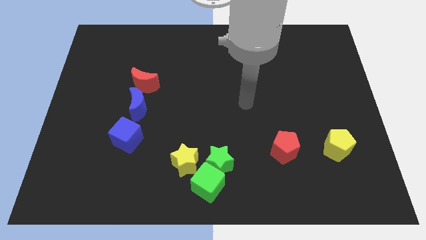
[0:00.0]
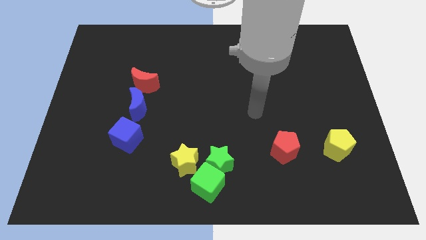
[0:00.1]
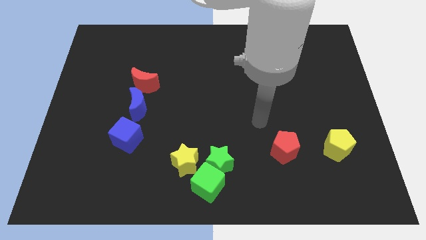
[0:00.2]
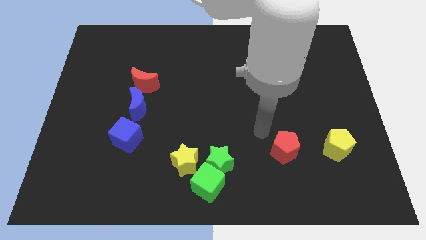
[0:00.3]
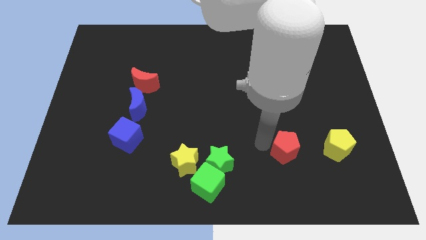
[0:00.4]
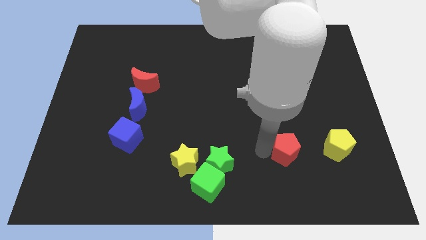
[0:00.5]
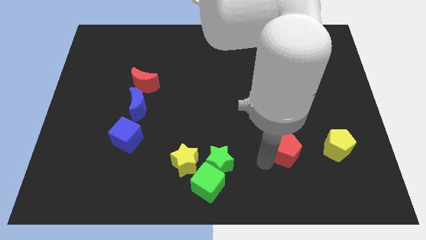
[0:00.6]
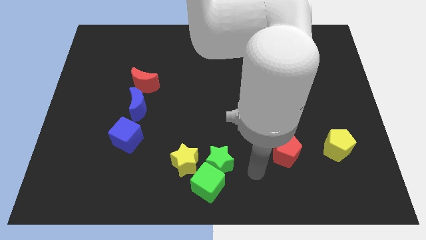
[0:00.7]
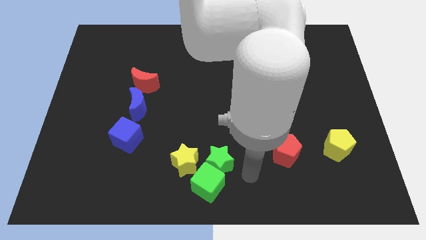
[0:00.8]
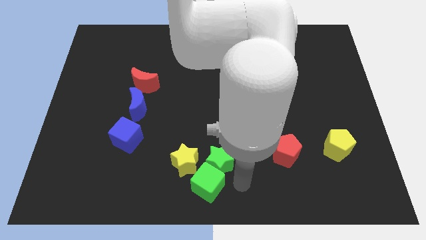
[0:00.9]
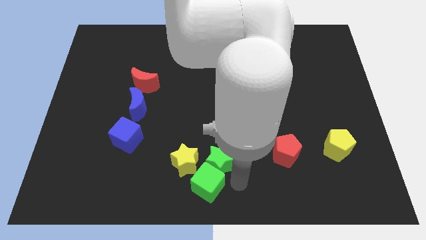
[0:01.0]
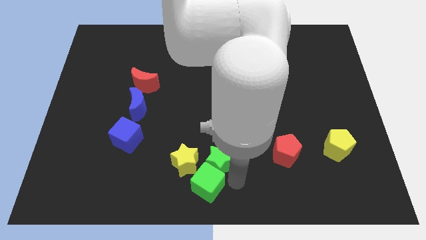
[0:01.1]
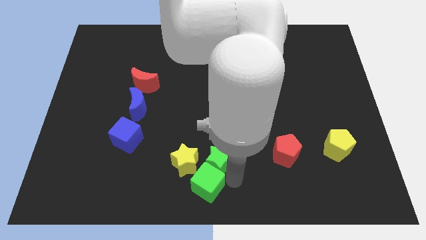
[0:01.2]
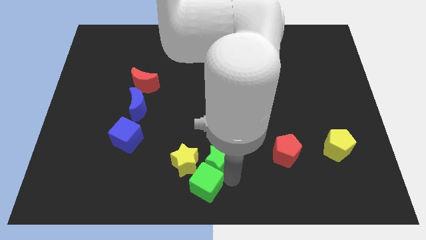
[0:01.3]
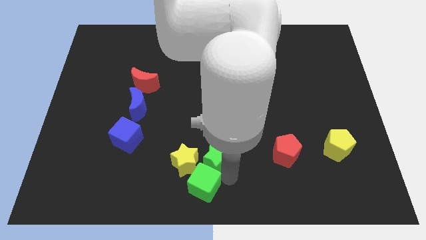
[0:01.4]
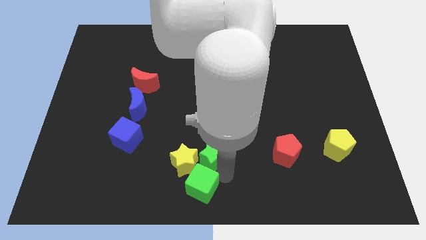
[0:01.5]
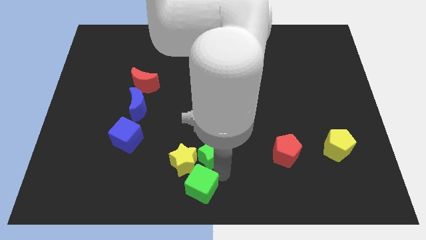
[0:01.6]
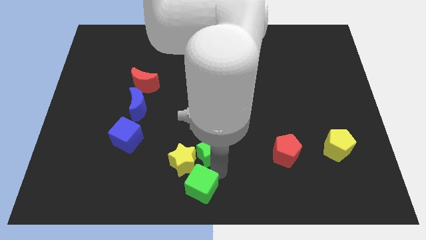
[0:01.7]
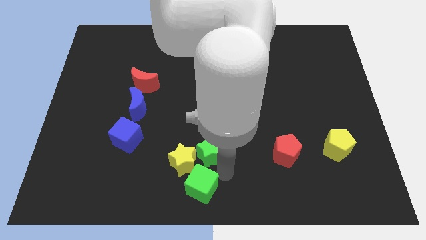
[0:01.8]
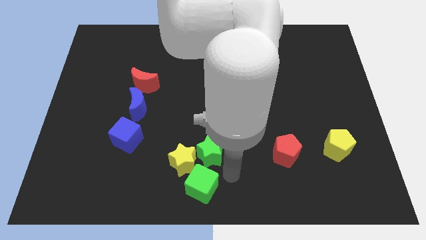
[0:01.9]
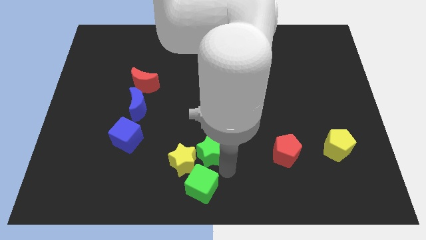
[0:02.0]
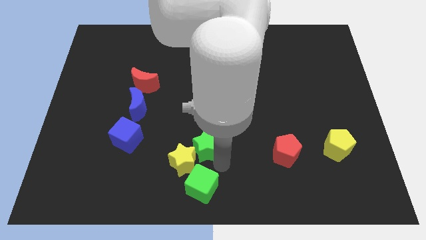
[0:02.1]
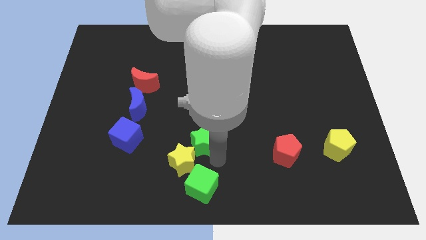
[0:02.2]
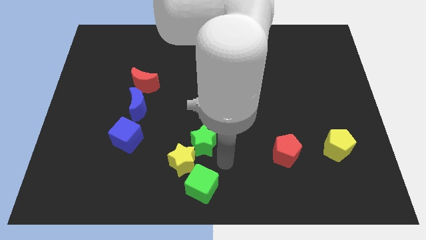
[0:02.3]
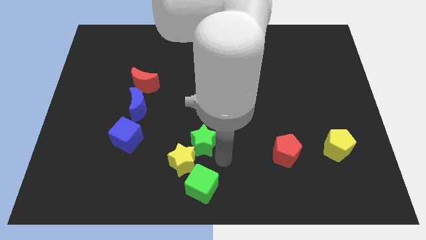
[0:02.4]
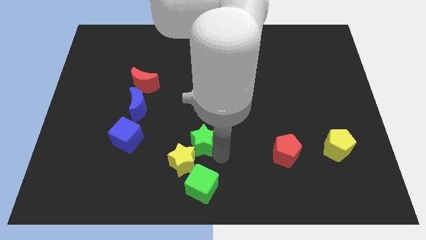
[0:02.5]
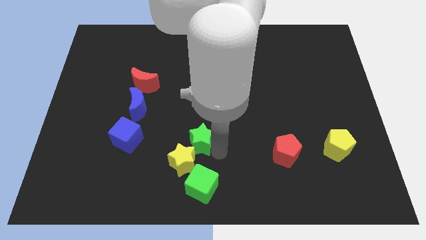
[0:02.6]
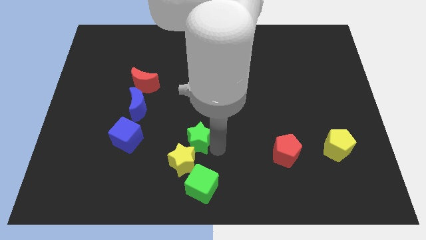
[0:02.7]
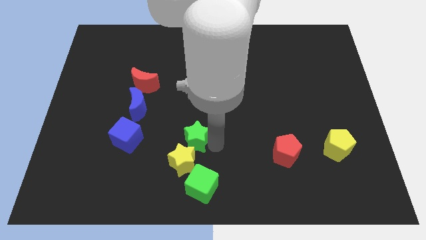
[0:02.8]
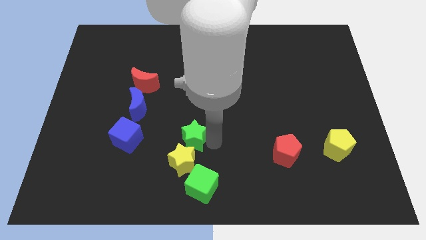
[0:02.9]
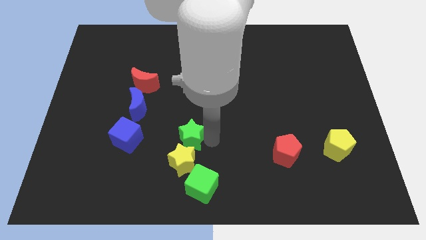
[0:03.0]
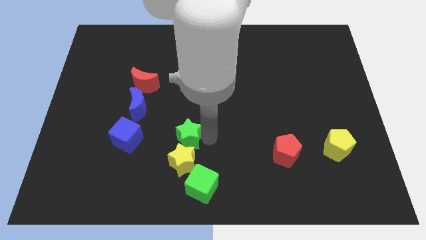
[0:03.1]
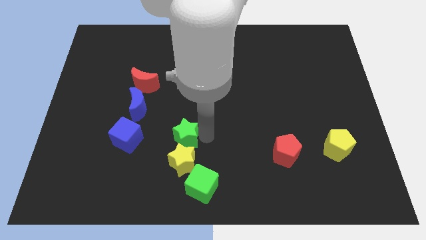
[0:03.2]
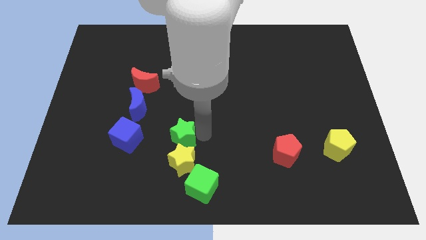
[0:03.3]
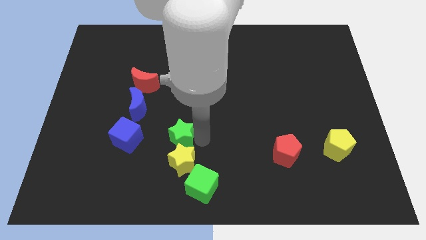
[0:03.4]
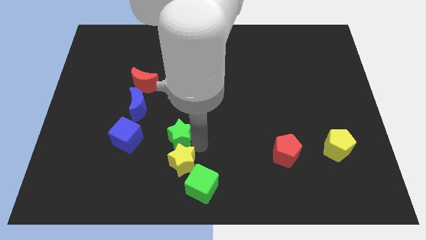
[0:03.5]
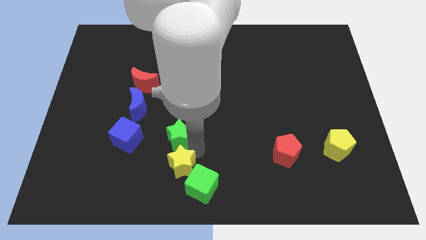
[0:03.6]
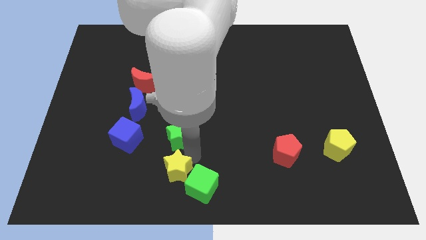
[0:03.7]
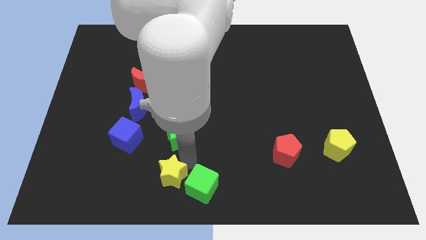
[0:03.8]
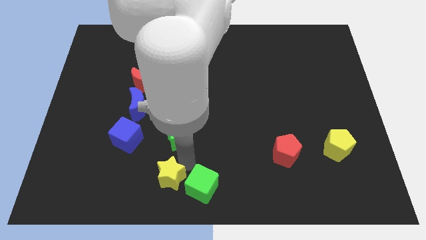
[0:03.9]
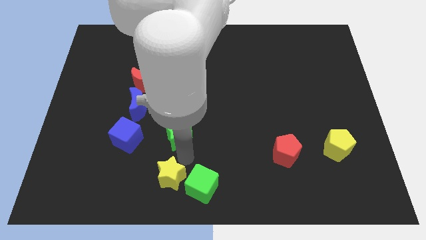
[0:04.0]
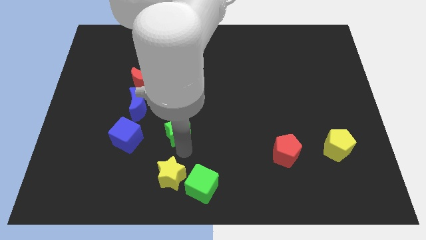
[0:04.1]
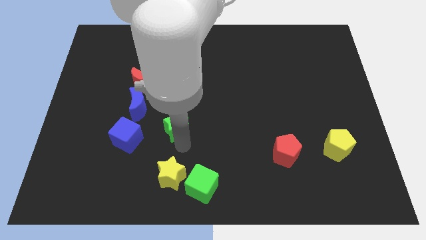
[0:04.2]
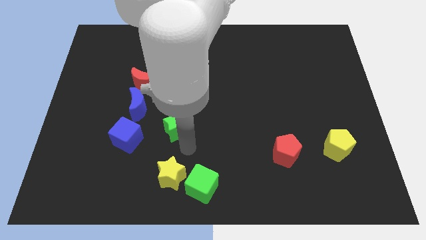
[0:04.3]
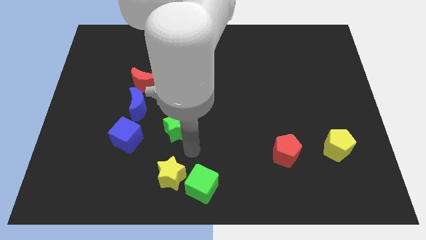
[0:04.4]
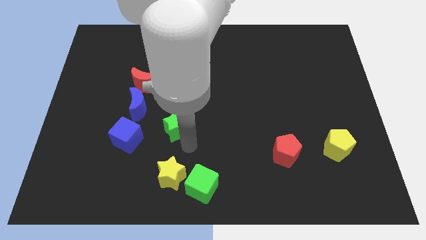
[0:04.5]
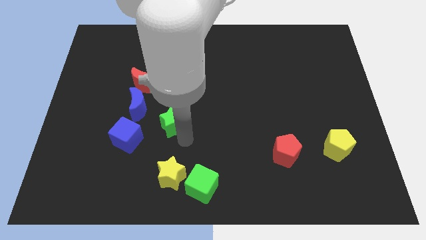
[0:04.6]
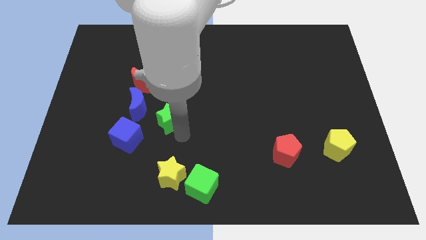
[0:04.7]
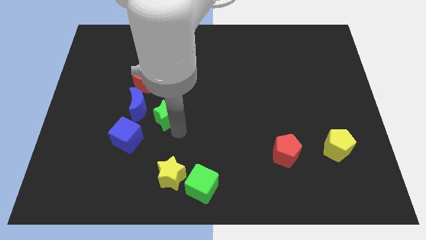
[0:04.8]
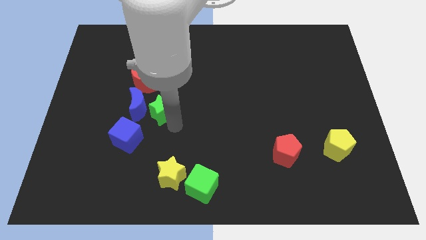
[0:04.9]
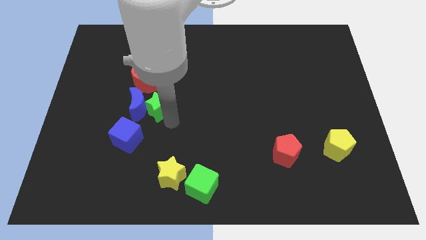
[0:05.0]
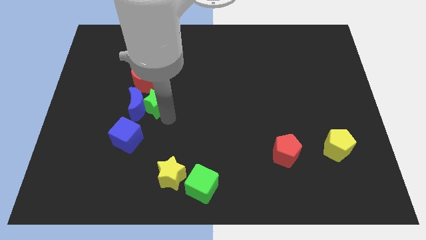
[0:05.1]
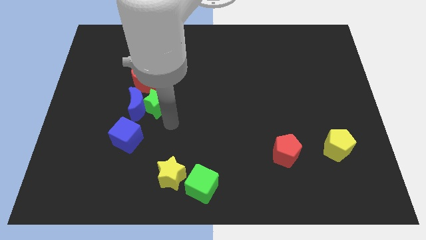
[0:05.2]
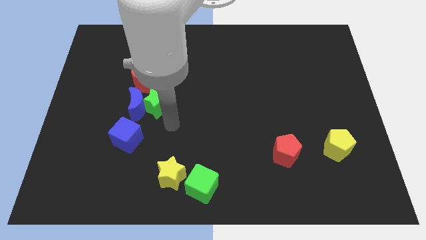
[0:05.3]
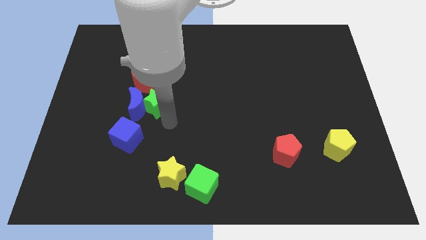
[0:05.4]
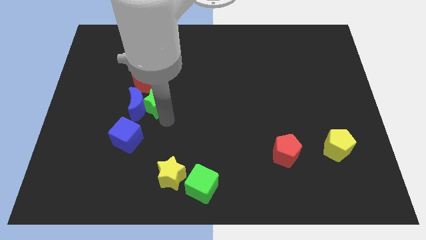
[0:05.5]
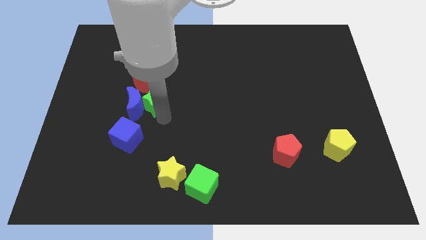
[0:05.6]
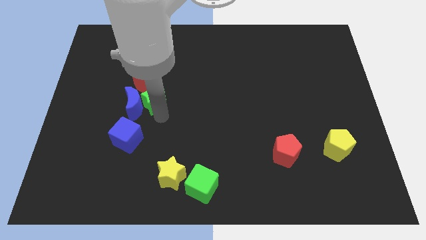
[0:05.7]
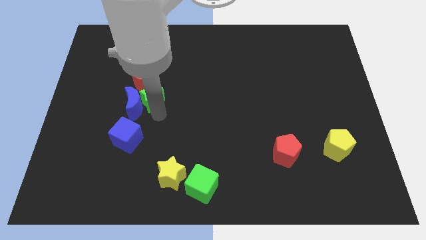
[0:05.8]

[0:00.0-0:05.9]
slide the green star to the red moon

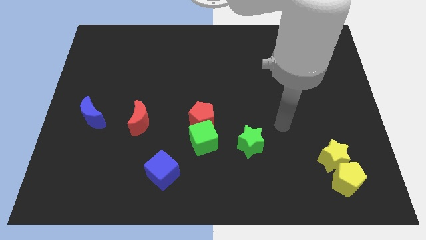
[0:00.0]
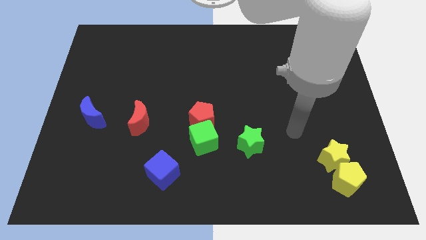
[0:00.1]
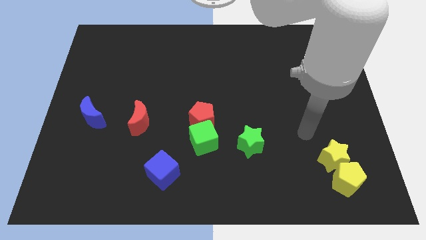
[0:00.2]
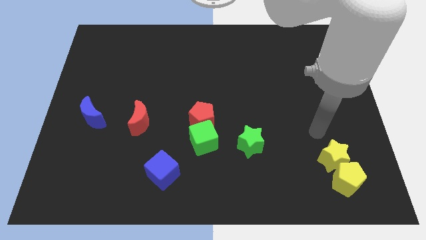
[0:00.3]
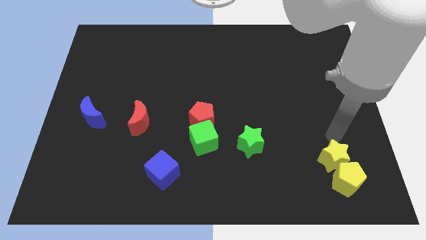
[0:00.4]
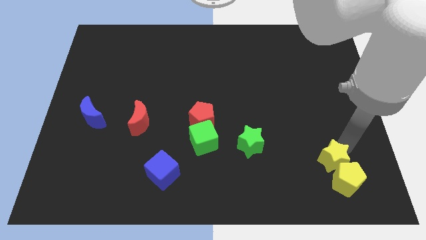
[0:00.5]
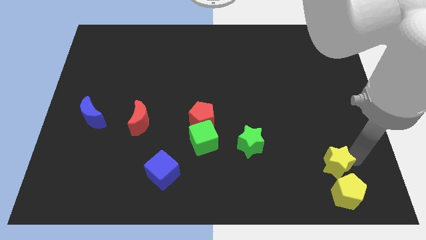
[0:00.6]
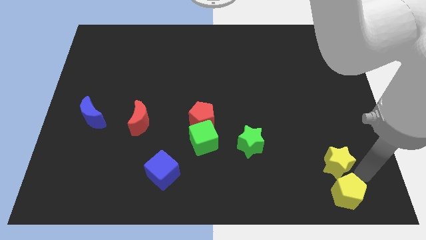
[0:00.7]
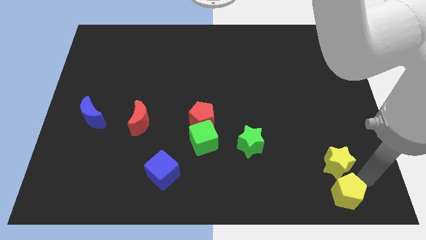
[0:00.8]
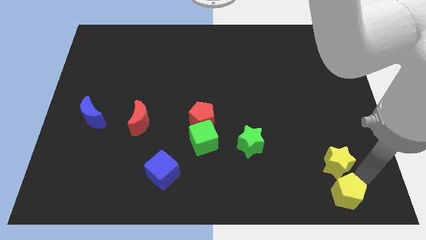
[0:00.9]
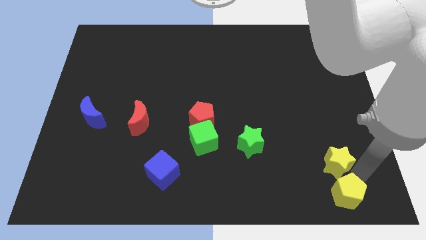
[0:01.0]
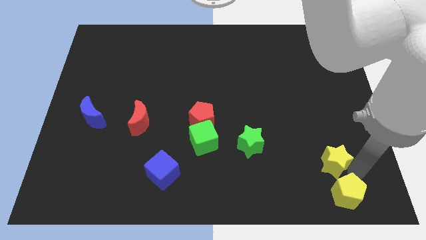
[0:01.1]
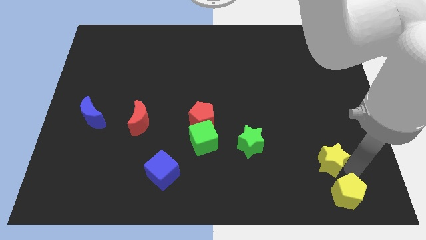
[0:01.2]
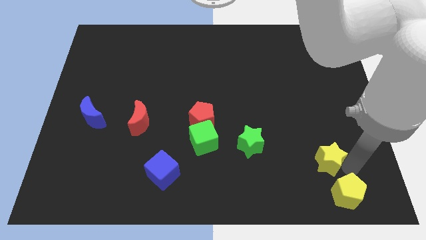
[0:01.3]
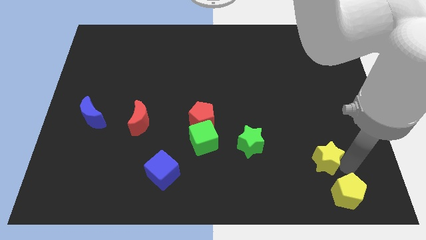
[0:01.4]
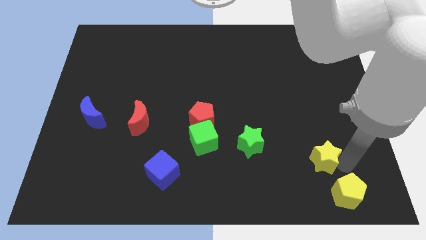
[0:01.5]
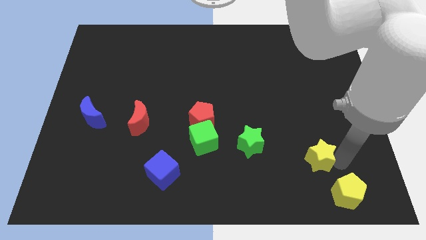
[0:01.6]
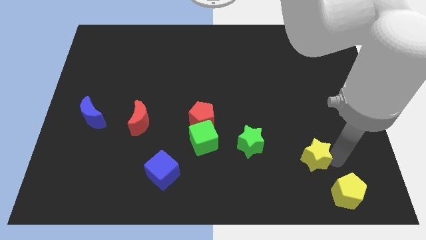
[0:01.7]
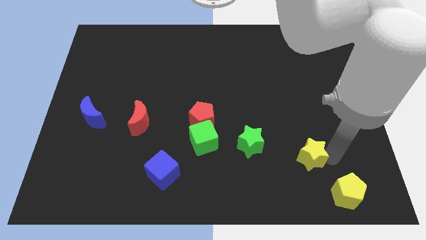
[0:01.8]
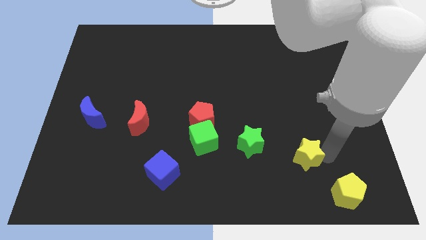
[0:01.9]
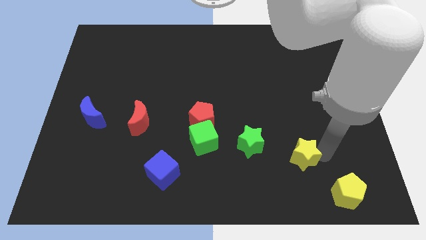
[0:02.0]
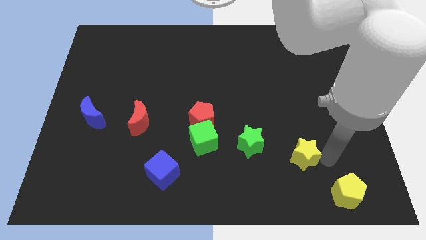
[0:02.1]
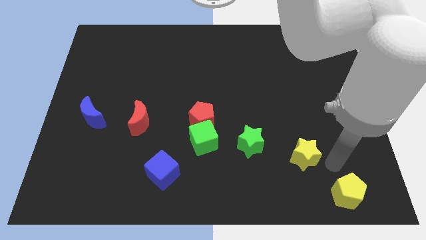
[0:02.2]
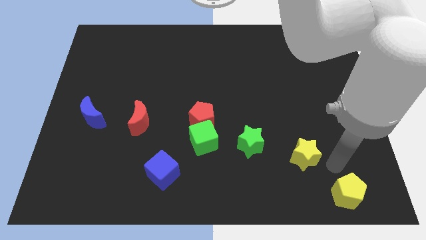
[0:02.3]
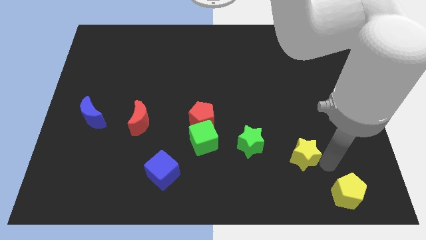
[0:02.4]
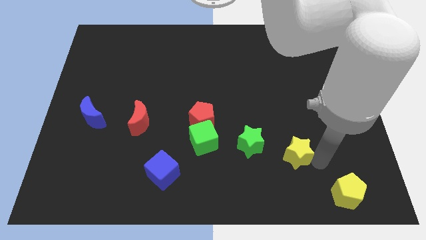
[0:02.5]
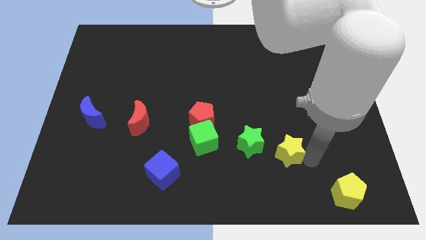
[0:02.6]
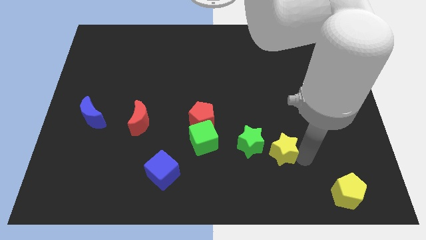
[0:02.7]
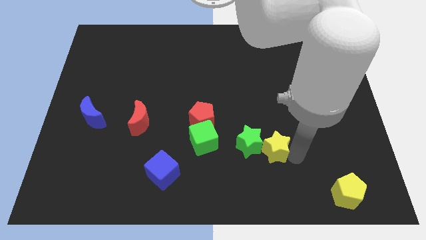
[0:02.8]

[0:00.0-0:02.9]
slide the yellow star close to the green star
